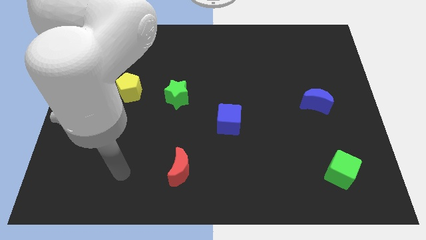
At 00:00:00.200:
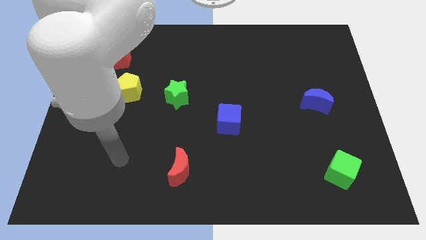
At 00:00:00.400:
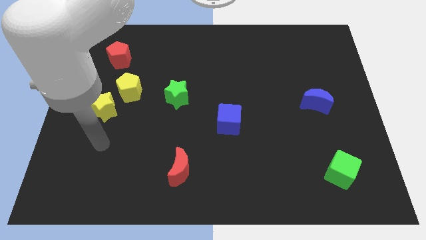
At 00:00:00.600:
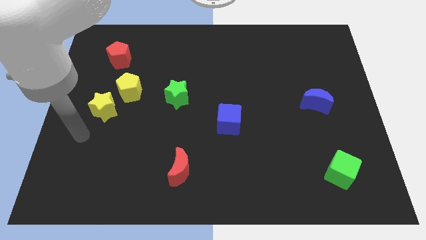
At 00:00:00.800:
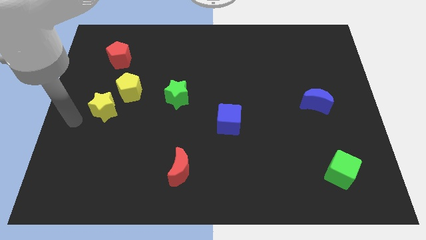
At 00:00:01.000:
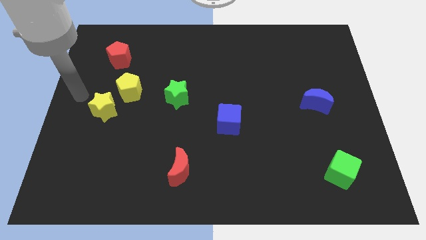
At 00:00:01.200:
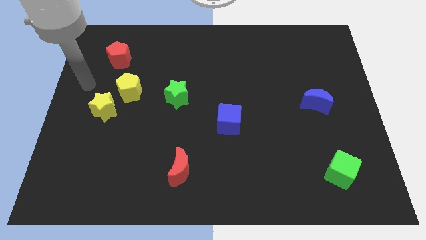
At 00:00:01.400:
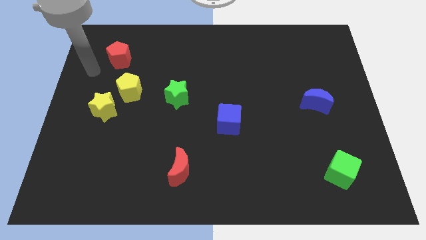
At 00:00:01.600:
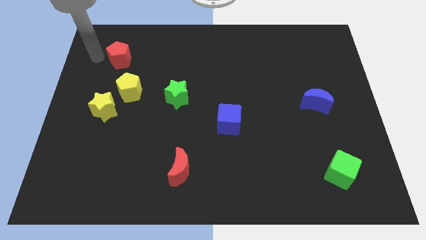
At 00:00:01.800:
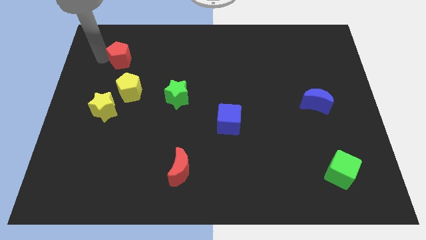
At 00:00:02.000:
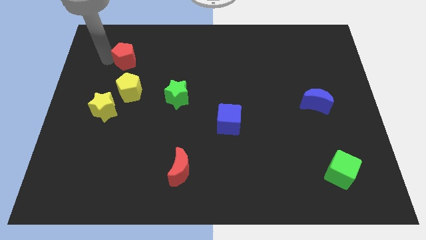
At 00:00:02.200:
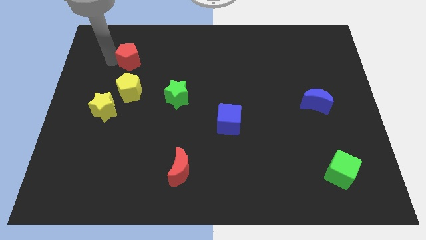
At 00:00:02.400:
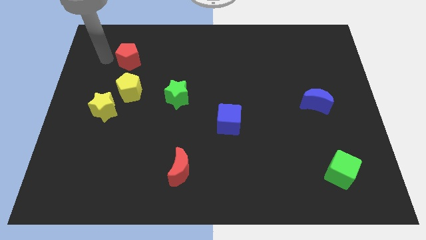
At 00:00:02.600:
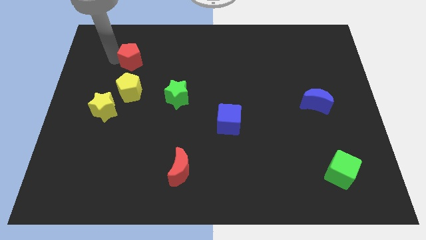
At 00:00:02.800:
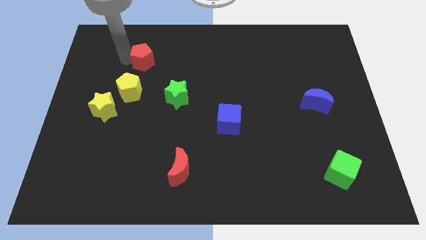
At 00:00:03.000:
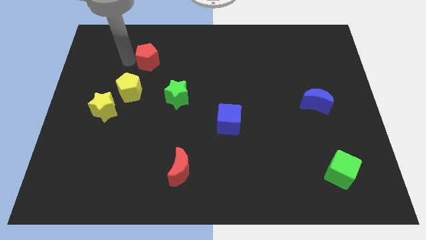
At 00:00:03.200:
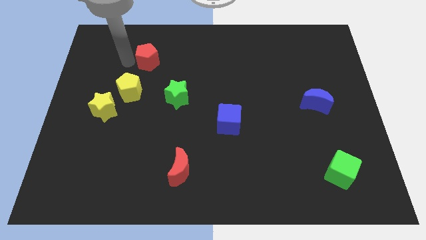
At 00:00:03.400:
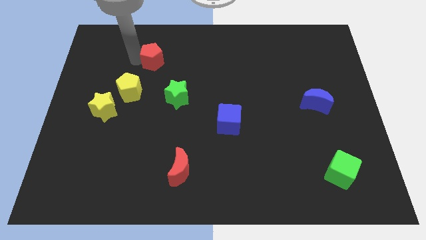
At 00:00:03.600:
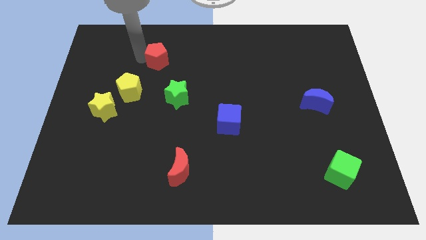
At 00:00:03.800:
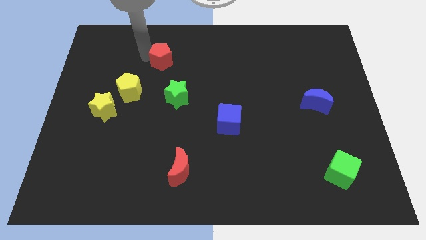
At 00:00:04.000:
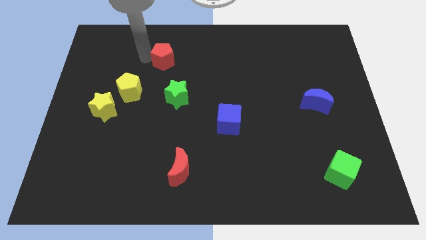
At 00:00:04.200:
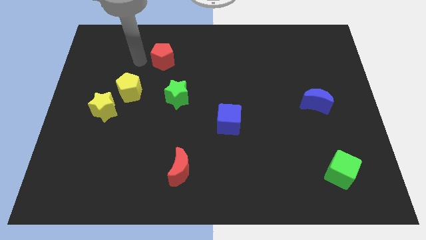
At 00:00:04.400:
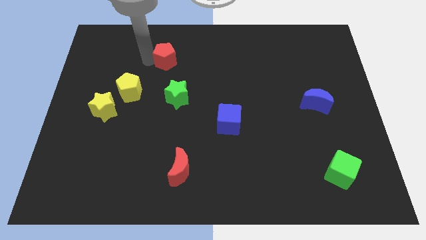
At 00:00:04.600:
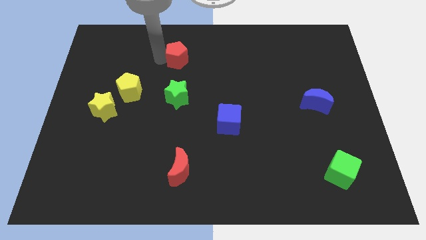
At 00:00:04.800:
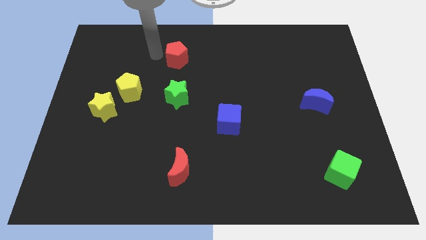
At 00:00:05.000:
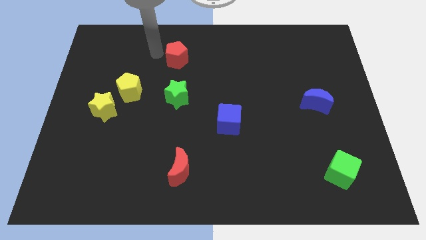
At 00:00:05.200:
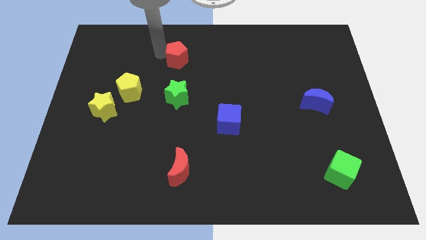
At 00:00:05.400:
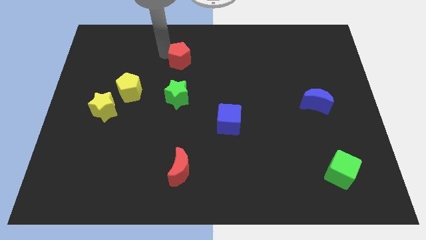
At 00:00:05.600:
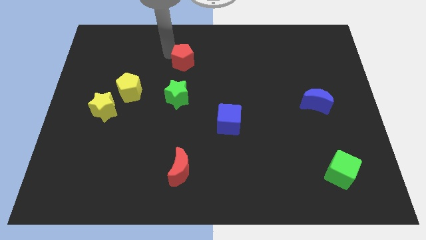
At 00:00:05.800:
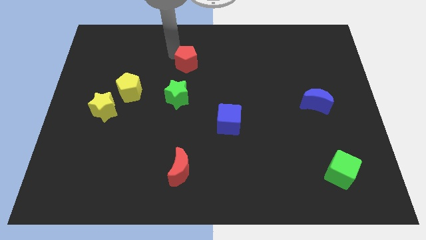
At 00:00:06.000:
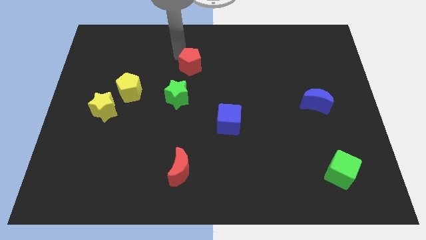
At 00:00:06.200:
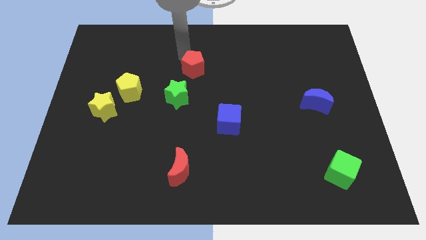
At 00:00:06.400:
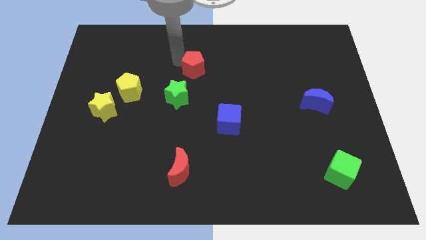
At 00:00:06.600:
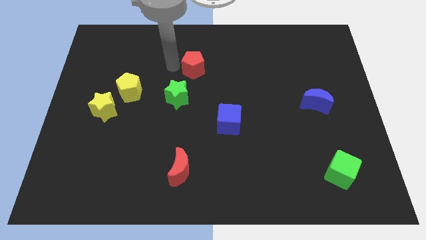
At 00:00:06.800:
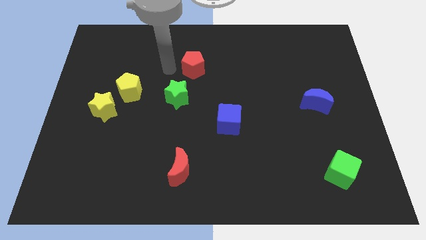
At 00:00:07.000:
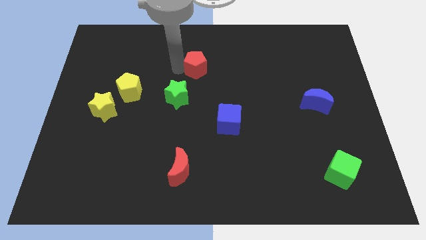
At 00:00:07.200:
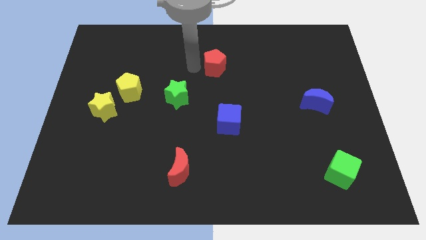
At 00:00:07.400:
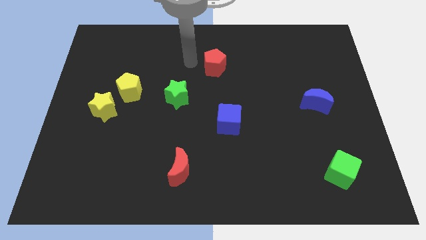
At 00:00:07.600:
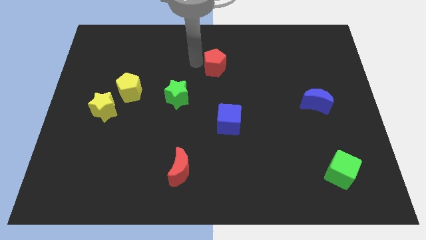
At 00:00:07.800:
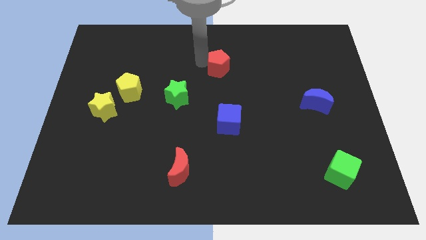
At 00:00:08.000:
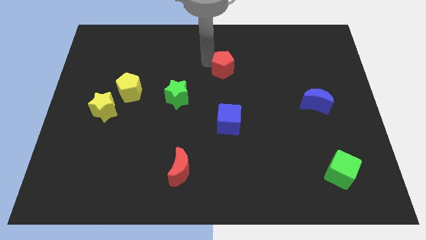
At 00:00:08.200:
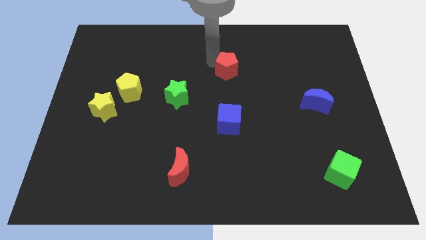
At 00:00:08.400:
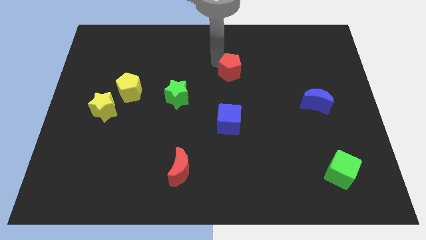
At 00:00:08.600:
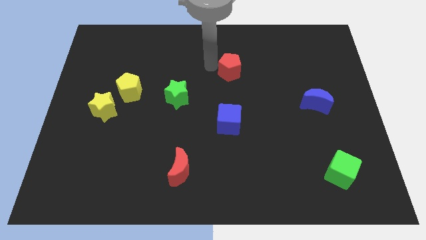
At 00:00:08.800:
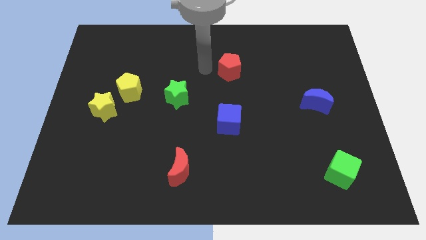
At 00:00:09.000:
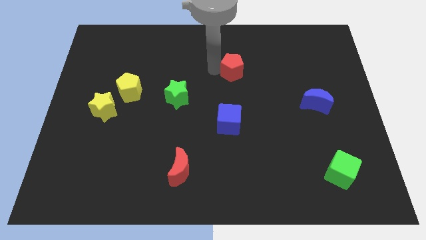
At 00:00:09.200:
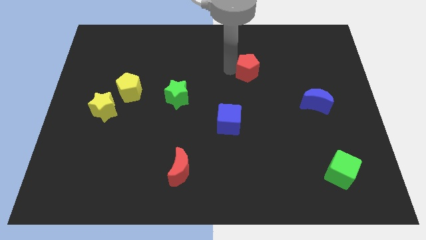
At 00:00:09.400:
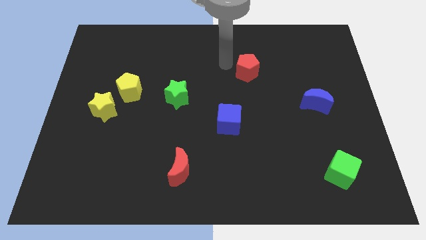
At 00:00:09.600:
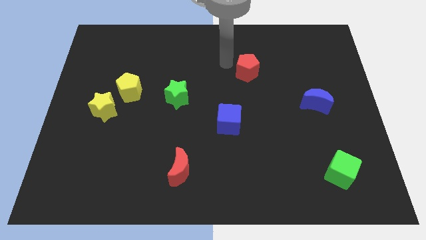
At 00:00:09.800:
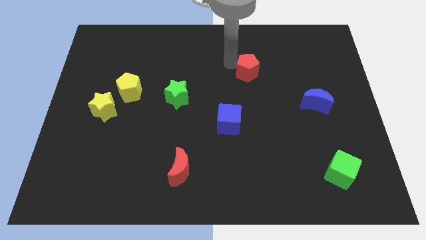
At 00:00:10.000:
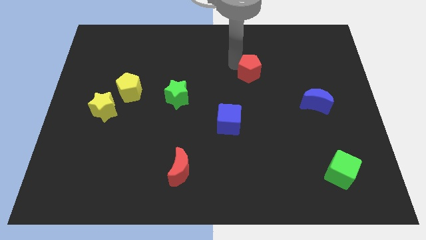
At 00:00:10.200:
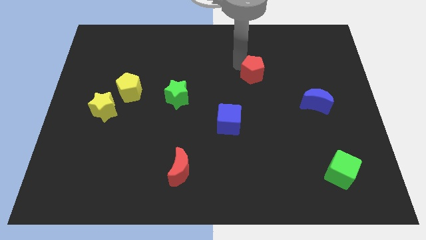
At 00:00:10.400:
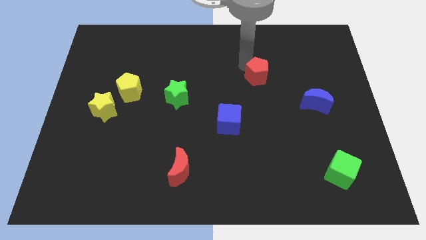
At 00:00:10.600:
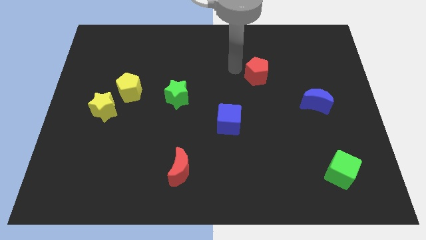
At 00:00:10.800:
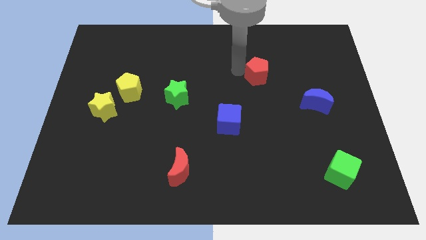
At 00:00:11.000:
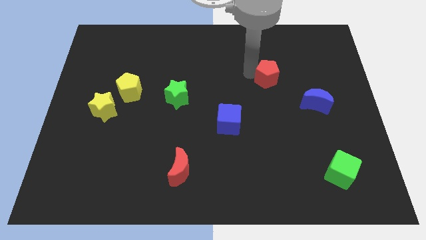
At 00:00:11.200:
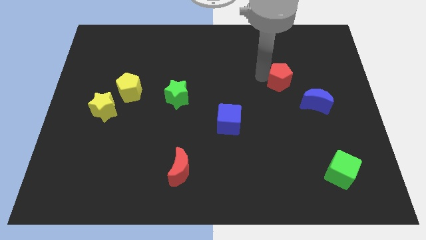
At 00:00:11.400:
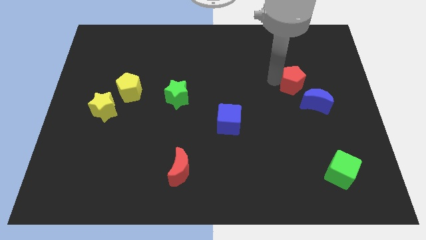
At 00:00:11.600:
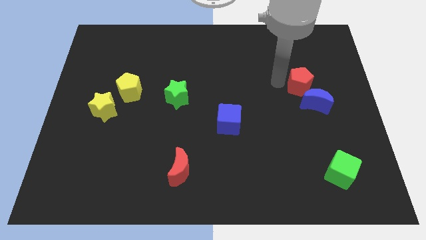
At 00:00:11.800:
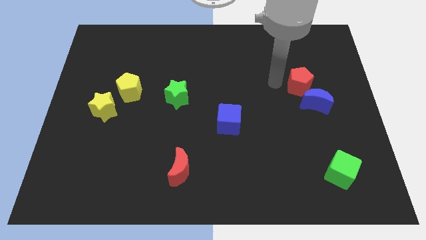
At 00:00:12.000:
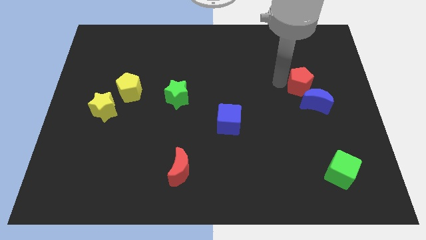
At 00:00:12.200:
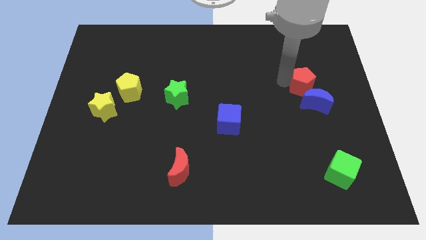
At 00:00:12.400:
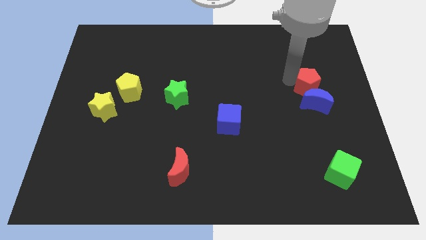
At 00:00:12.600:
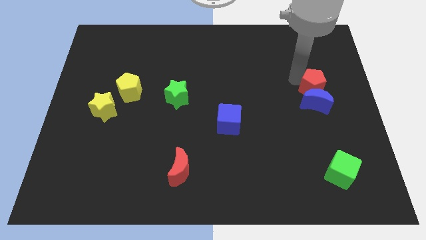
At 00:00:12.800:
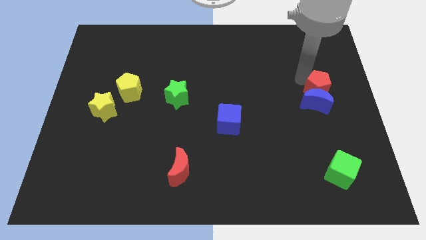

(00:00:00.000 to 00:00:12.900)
put the red pentagon to the right side

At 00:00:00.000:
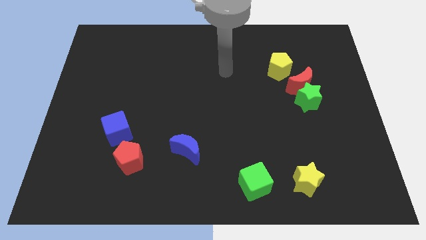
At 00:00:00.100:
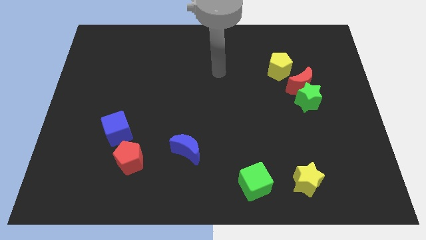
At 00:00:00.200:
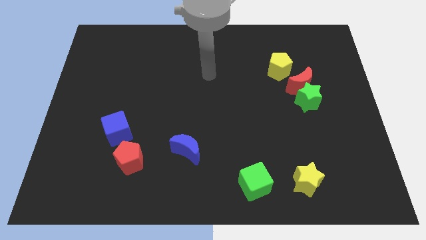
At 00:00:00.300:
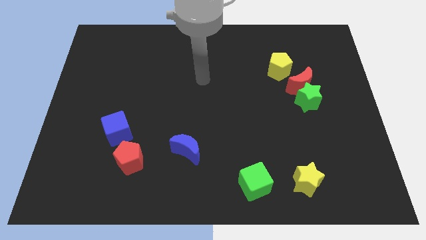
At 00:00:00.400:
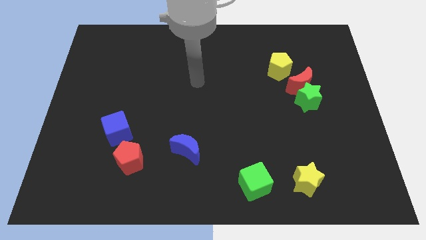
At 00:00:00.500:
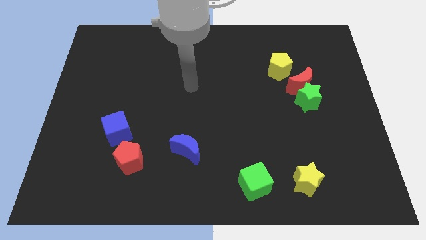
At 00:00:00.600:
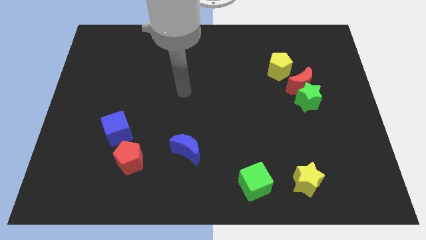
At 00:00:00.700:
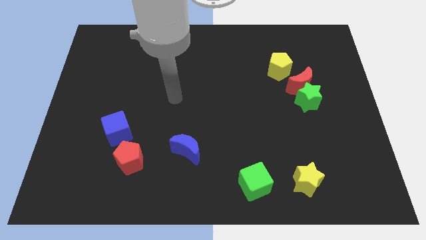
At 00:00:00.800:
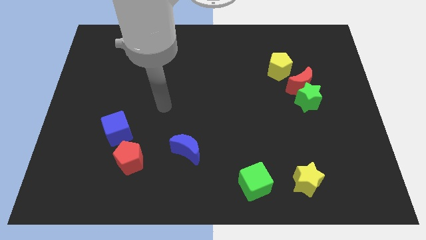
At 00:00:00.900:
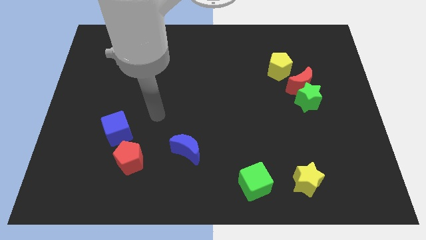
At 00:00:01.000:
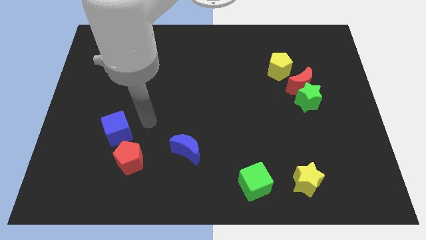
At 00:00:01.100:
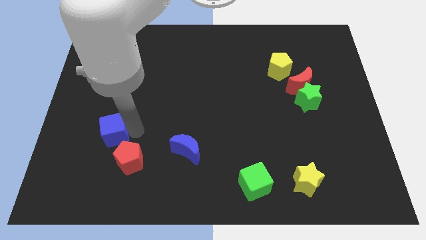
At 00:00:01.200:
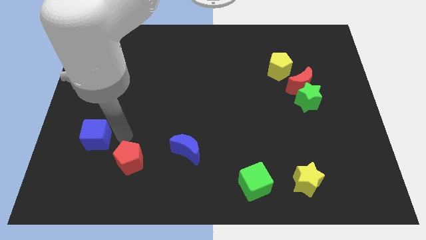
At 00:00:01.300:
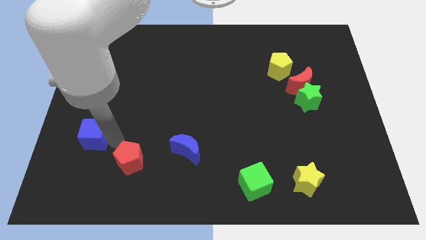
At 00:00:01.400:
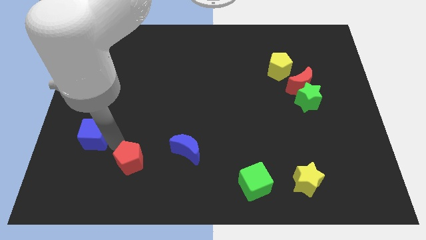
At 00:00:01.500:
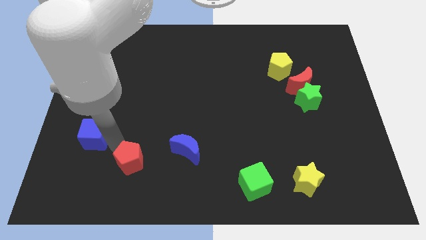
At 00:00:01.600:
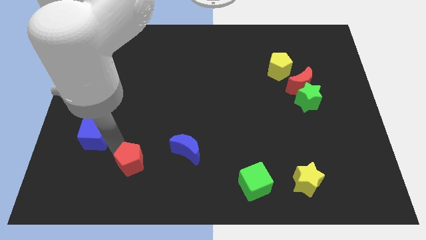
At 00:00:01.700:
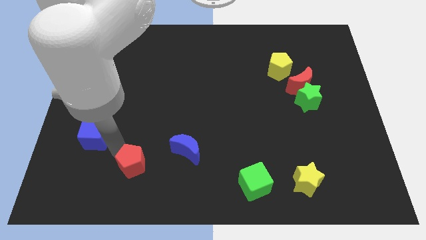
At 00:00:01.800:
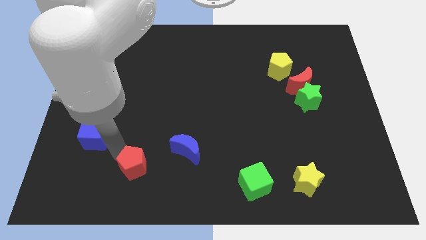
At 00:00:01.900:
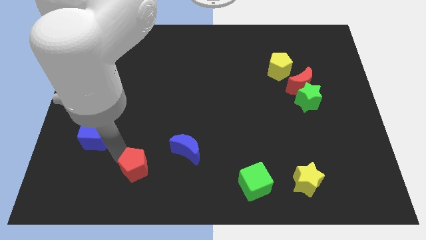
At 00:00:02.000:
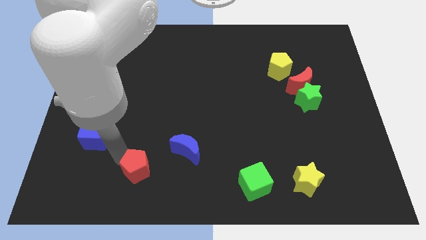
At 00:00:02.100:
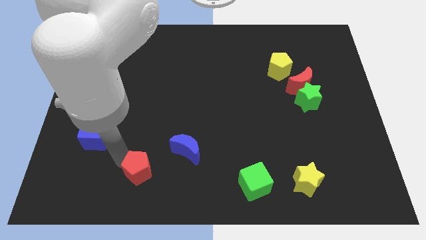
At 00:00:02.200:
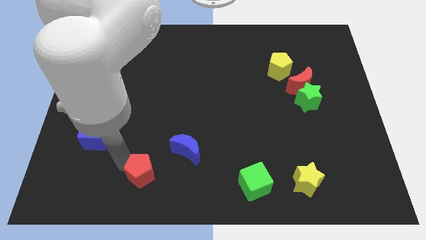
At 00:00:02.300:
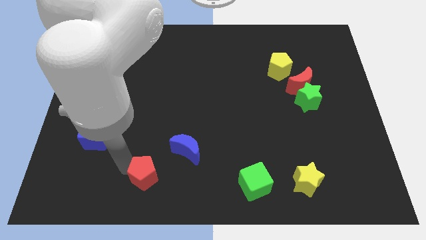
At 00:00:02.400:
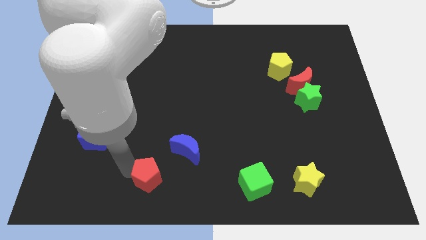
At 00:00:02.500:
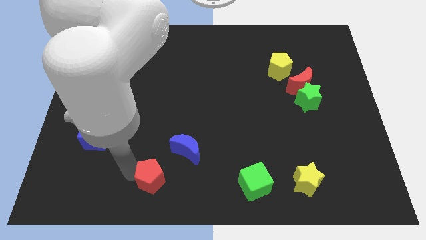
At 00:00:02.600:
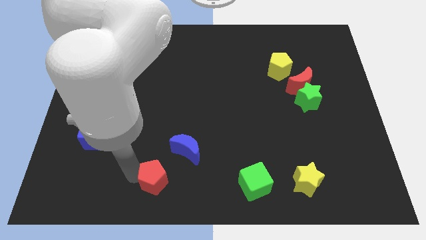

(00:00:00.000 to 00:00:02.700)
move the red pentagon to the bottom
